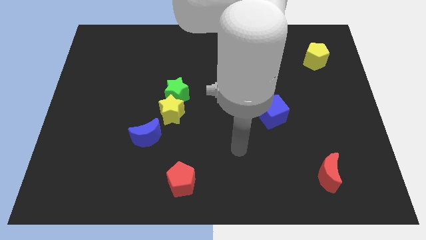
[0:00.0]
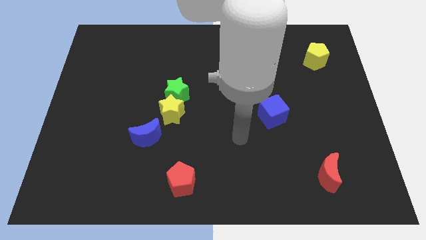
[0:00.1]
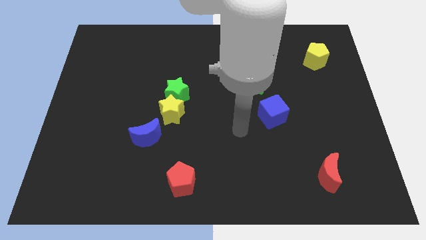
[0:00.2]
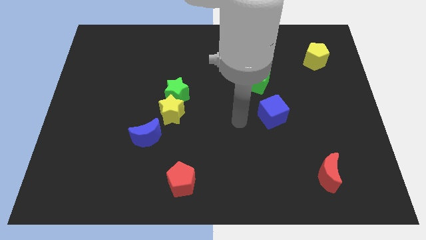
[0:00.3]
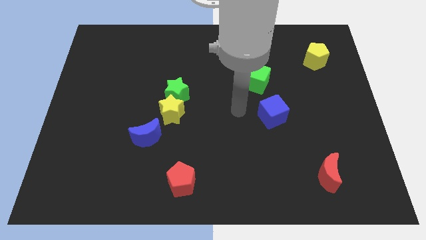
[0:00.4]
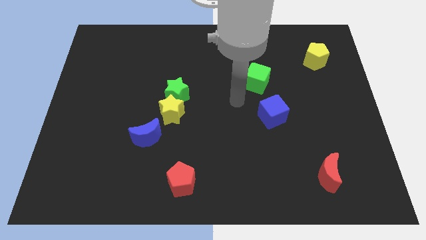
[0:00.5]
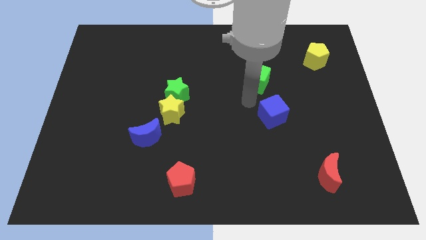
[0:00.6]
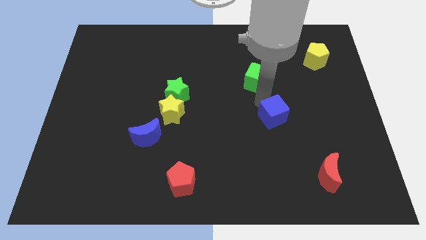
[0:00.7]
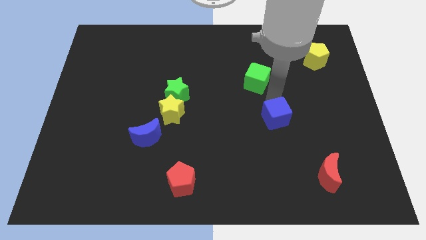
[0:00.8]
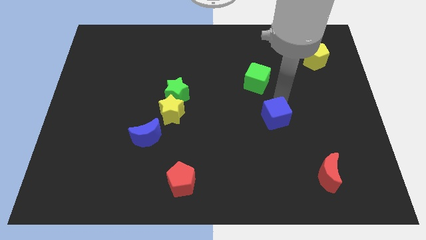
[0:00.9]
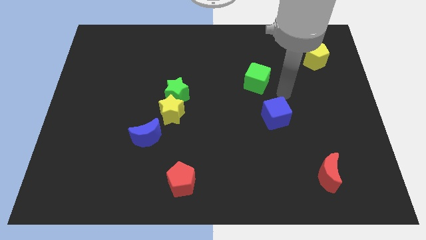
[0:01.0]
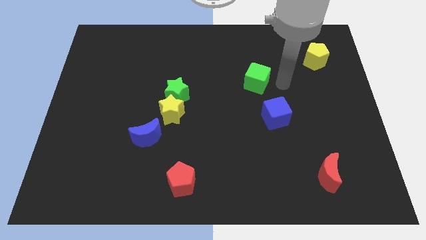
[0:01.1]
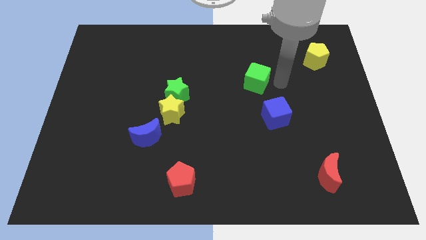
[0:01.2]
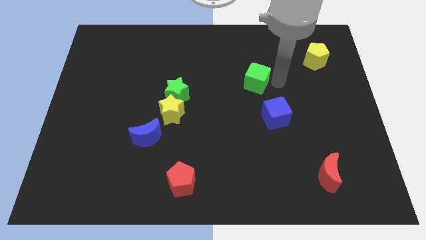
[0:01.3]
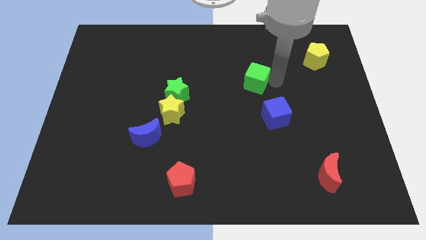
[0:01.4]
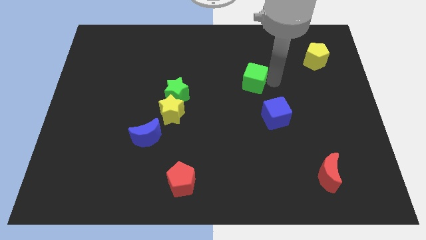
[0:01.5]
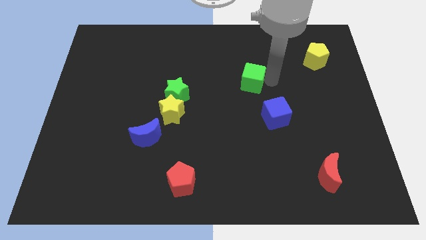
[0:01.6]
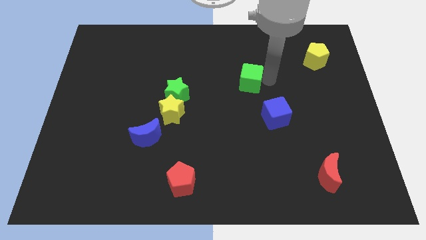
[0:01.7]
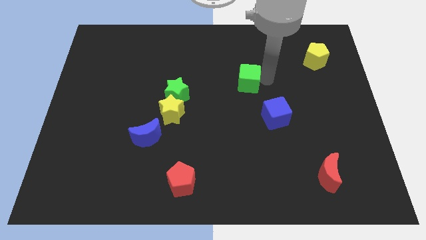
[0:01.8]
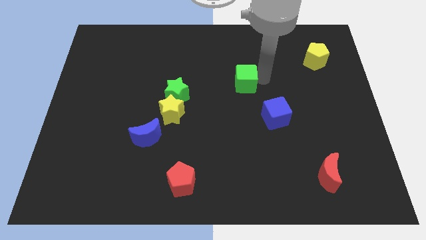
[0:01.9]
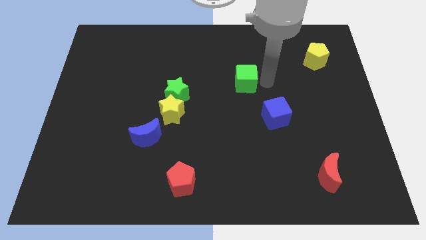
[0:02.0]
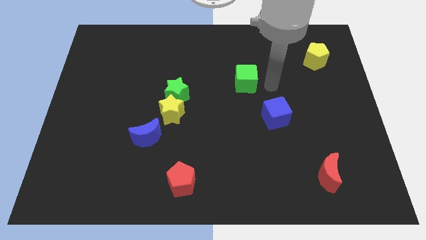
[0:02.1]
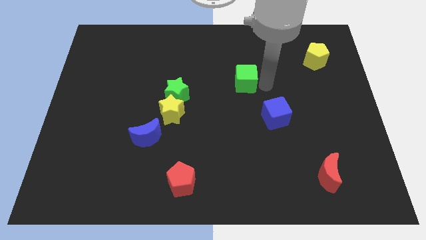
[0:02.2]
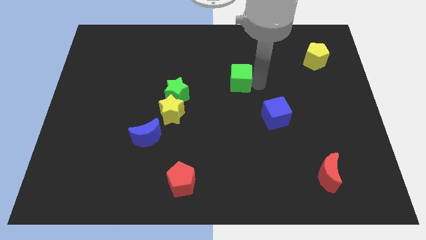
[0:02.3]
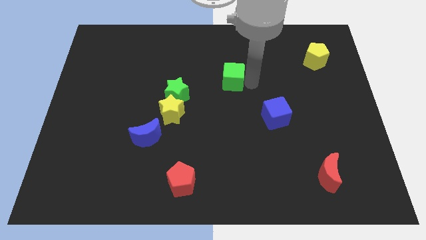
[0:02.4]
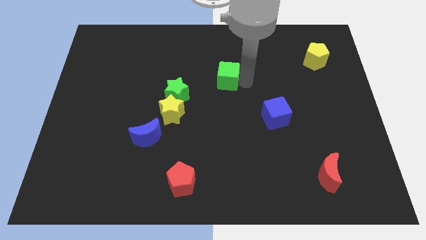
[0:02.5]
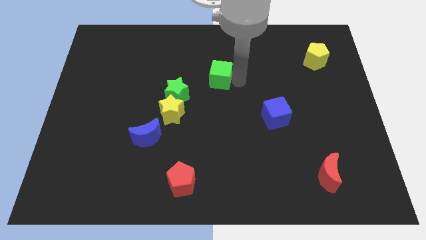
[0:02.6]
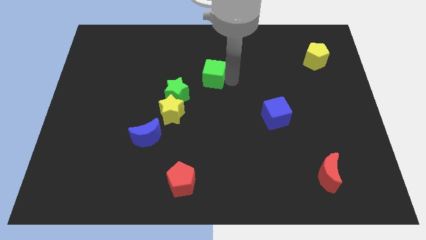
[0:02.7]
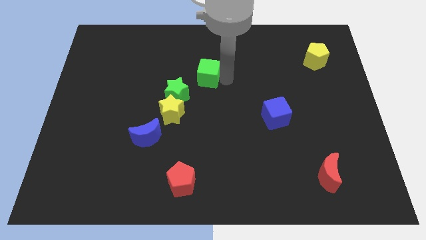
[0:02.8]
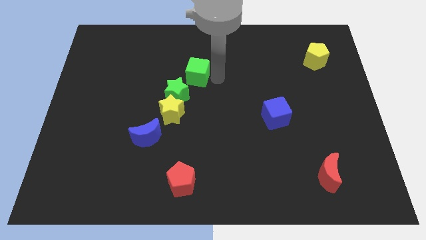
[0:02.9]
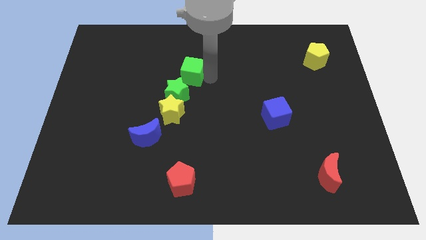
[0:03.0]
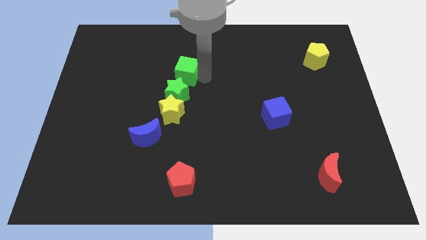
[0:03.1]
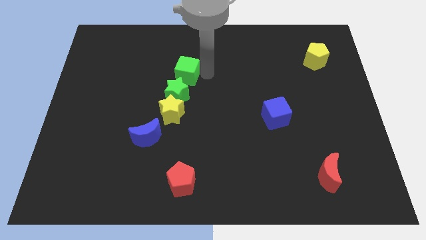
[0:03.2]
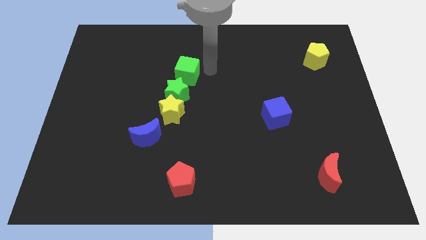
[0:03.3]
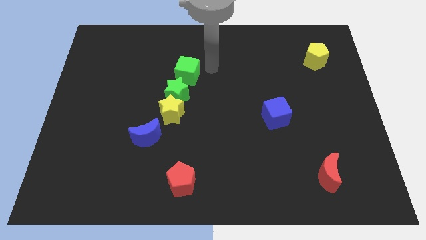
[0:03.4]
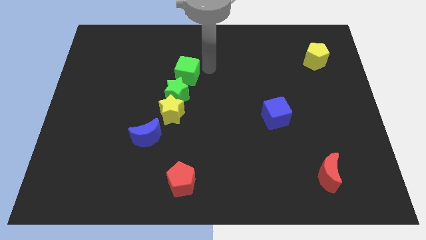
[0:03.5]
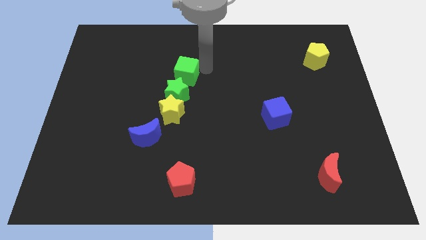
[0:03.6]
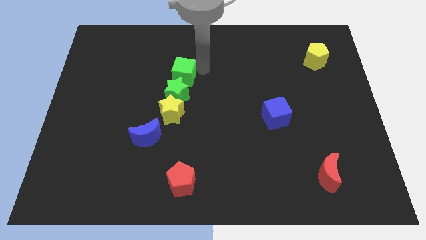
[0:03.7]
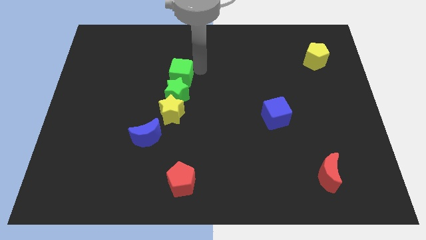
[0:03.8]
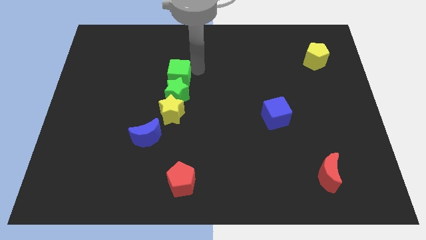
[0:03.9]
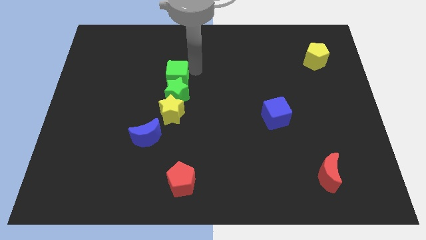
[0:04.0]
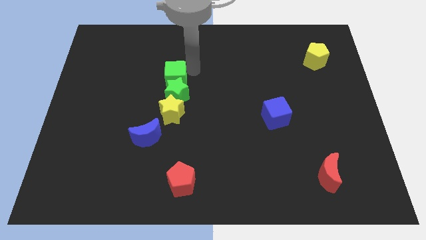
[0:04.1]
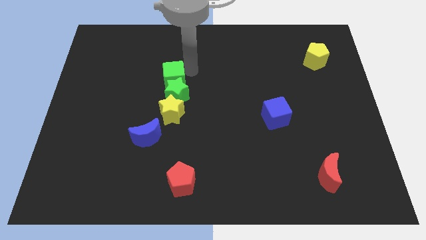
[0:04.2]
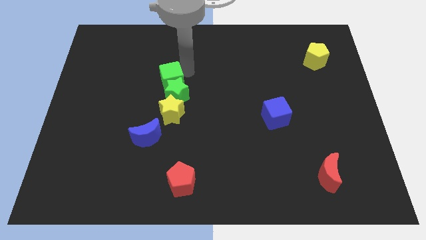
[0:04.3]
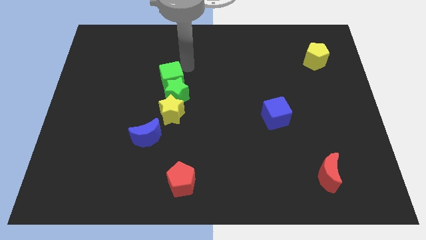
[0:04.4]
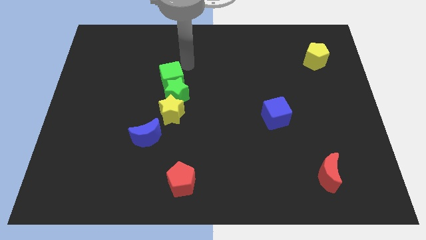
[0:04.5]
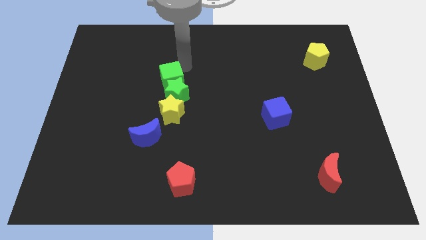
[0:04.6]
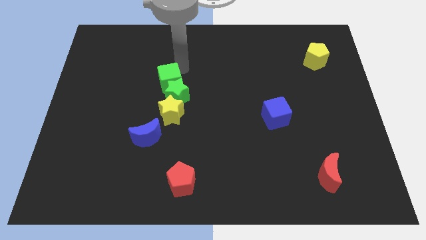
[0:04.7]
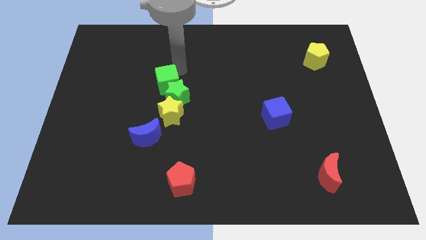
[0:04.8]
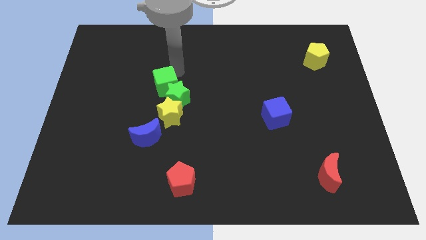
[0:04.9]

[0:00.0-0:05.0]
push the green cube to the top of the blue moon

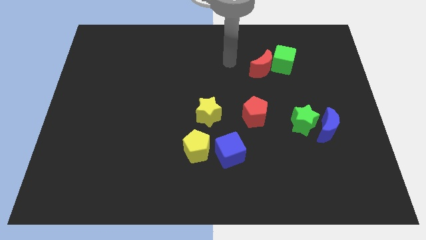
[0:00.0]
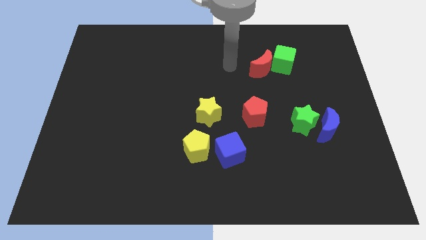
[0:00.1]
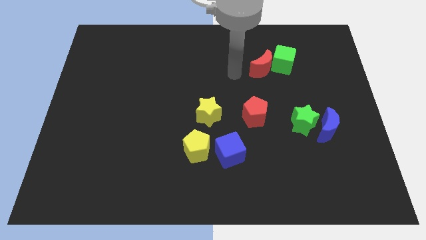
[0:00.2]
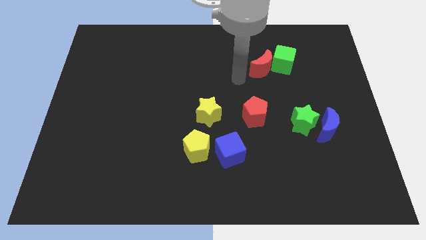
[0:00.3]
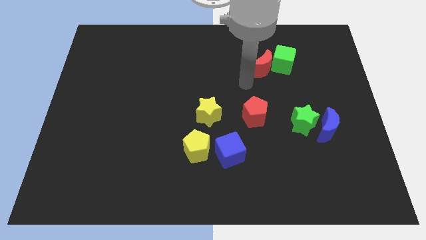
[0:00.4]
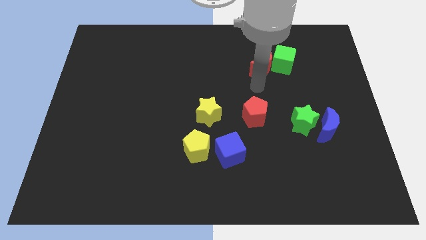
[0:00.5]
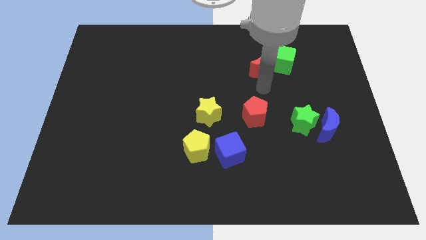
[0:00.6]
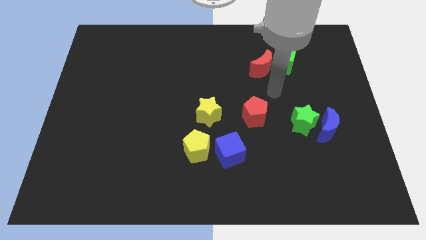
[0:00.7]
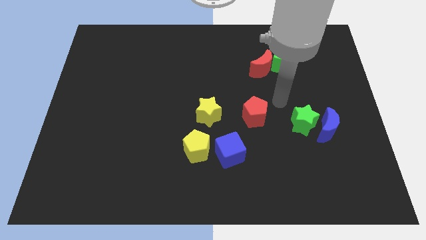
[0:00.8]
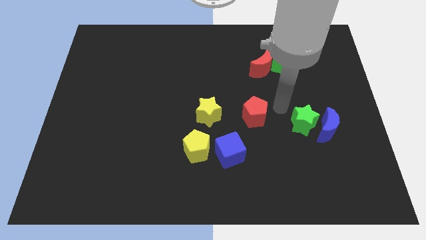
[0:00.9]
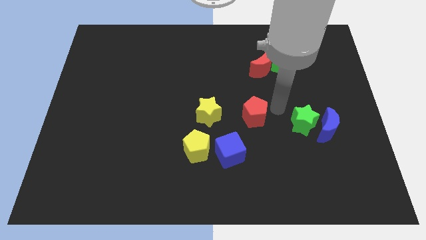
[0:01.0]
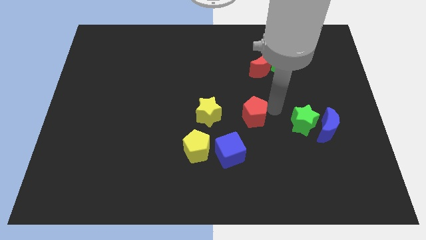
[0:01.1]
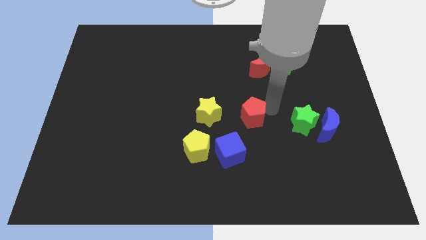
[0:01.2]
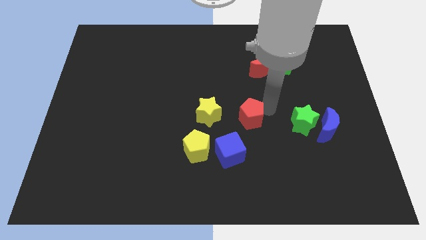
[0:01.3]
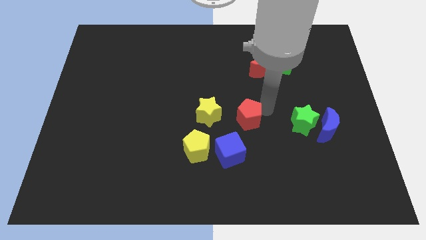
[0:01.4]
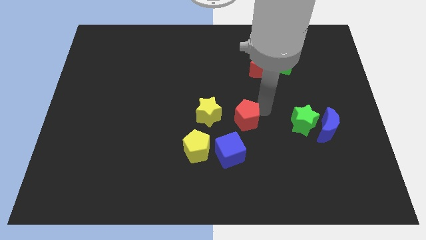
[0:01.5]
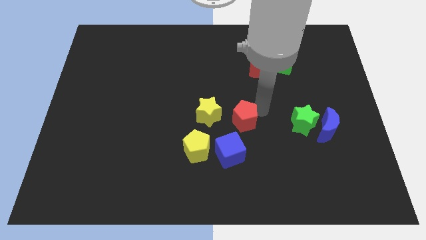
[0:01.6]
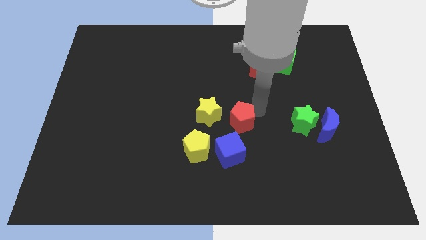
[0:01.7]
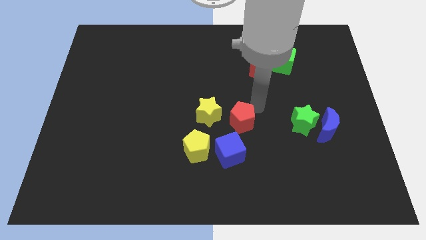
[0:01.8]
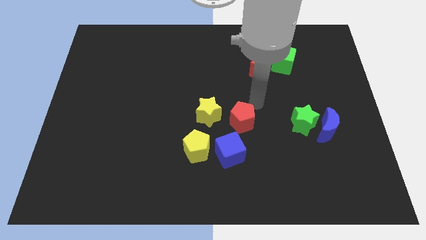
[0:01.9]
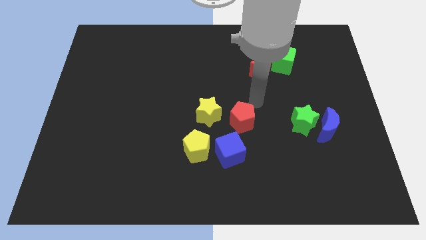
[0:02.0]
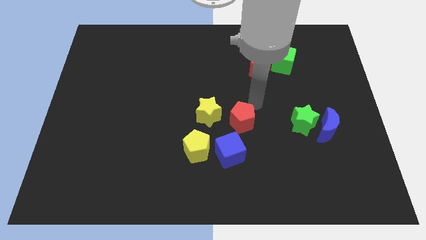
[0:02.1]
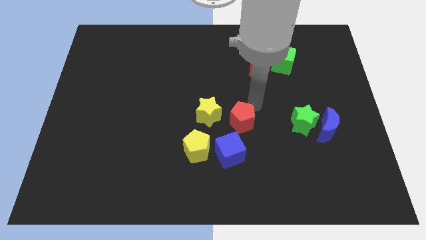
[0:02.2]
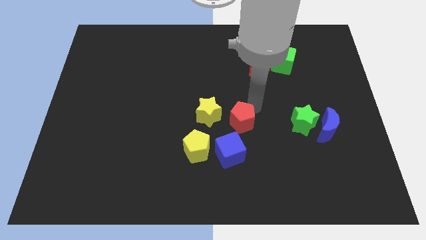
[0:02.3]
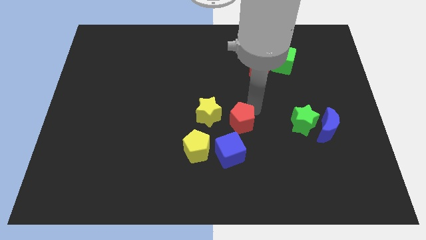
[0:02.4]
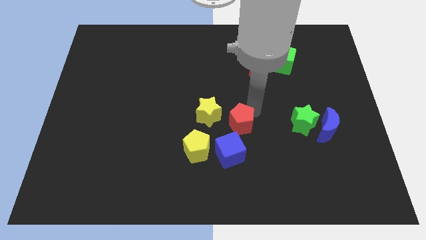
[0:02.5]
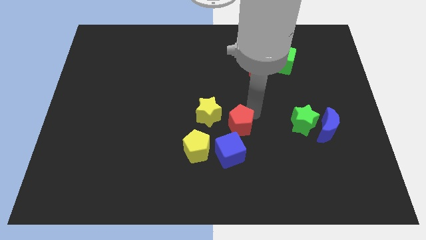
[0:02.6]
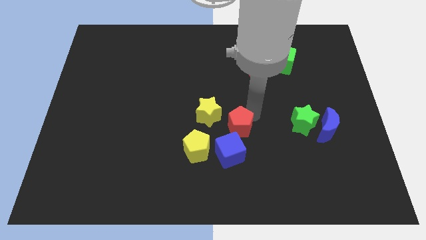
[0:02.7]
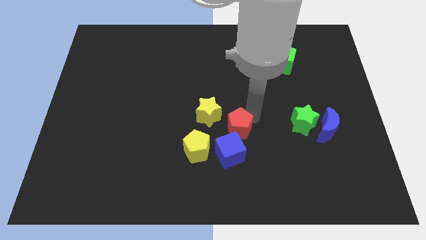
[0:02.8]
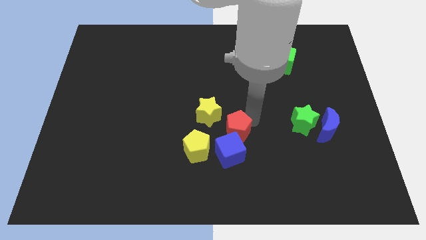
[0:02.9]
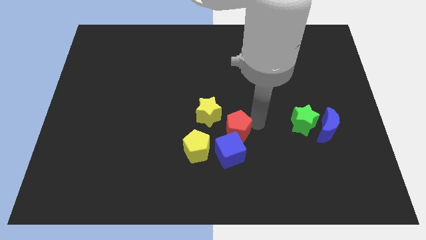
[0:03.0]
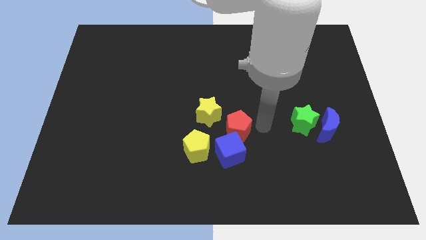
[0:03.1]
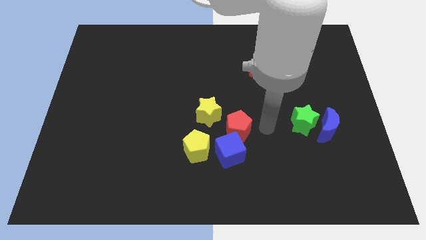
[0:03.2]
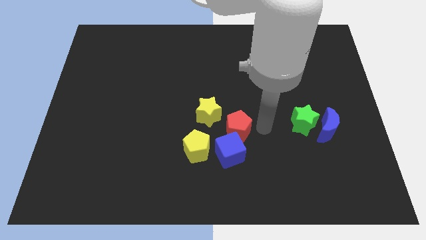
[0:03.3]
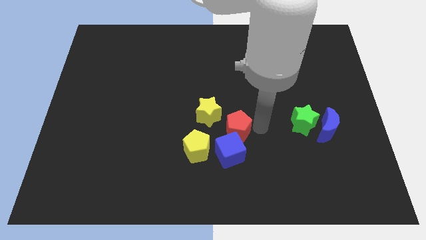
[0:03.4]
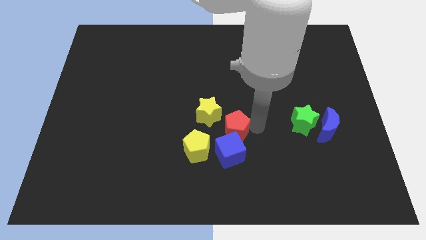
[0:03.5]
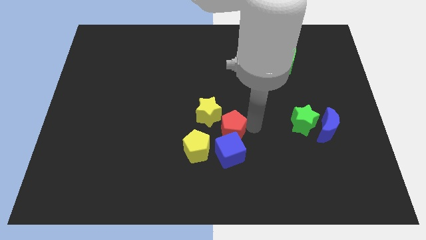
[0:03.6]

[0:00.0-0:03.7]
slide the red pentagon to the top left side of the blue cube
